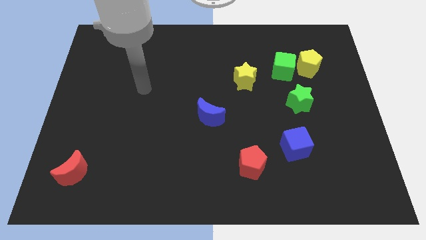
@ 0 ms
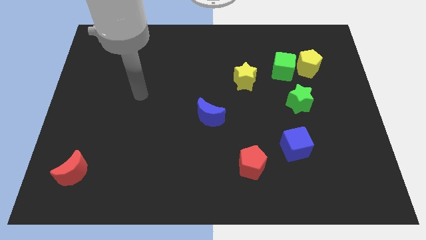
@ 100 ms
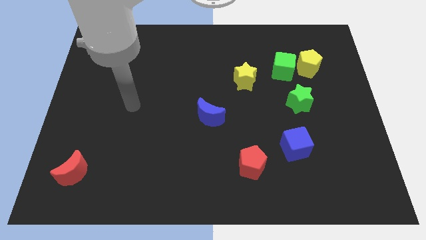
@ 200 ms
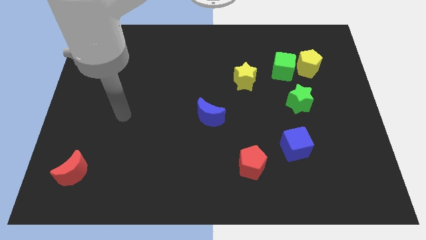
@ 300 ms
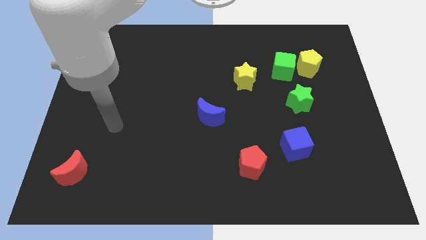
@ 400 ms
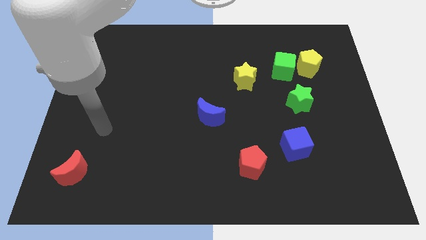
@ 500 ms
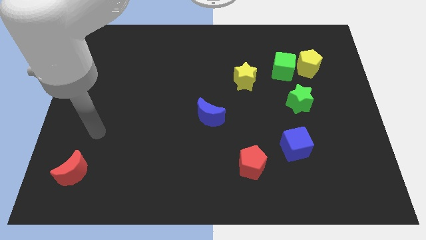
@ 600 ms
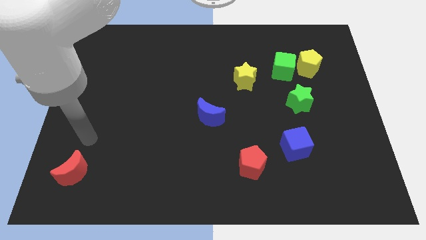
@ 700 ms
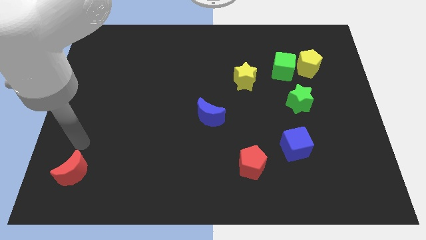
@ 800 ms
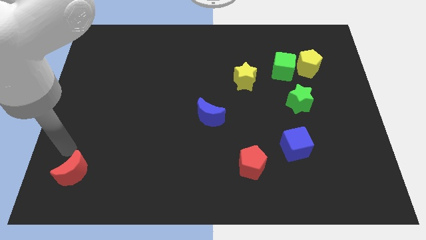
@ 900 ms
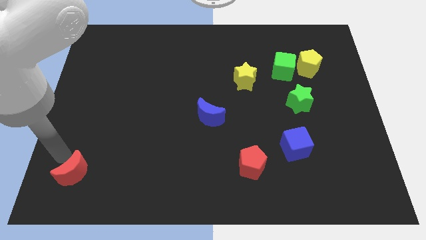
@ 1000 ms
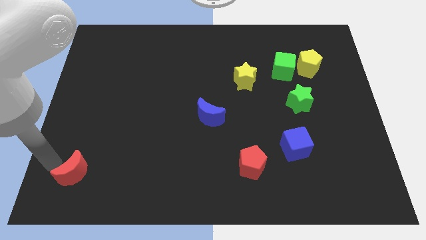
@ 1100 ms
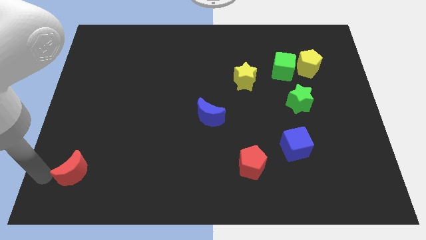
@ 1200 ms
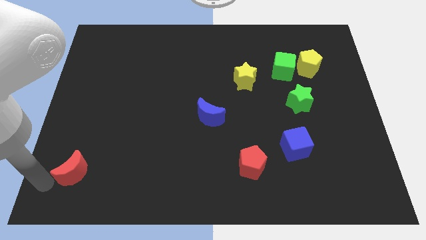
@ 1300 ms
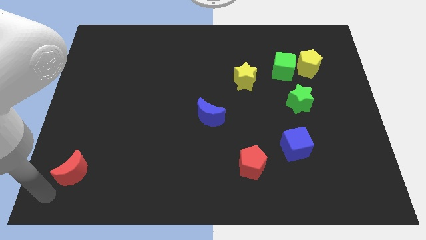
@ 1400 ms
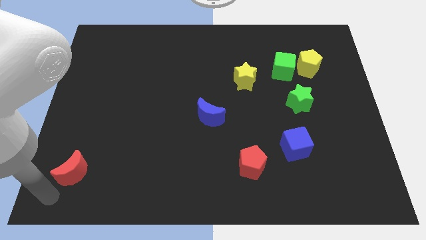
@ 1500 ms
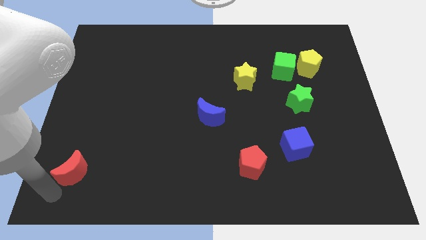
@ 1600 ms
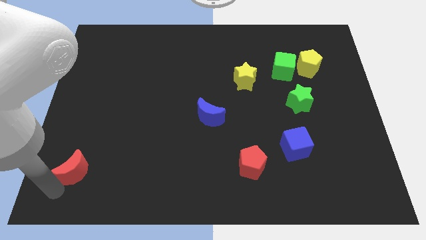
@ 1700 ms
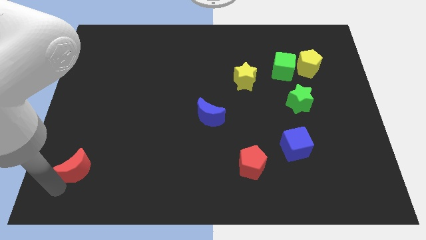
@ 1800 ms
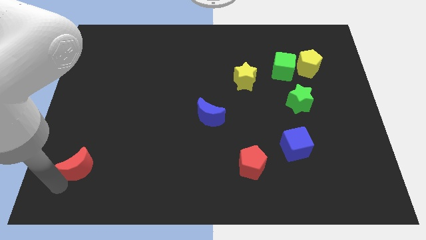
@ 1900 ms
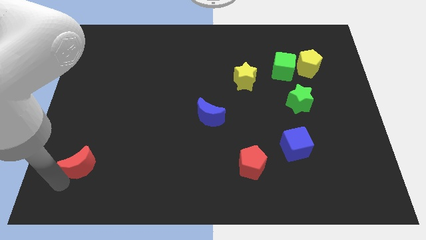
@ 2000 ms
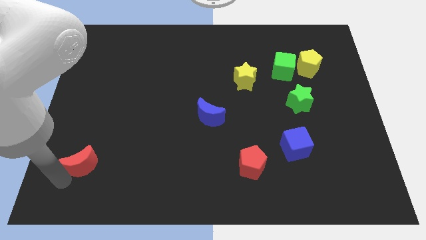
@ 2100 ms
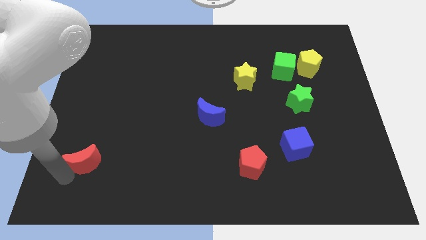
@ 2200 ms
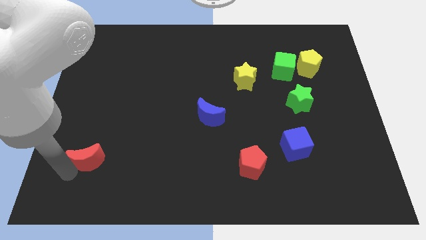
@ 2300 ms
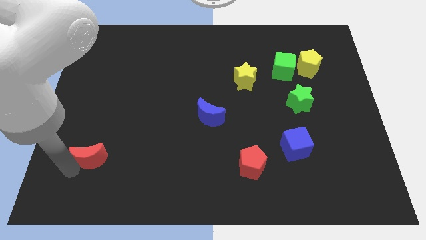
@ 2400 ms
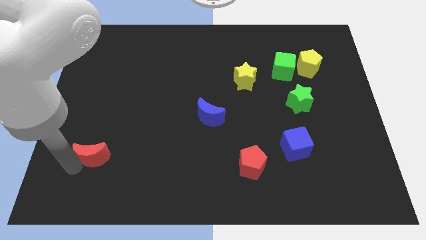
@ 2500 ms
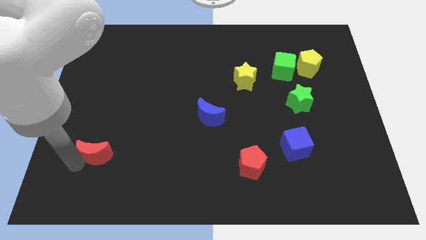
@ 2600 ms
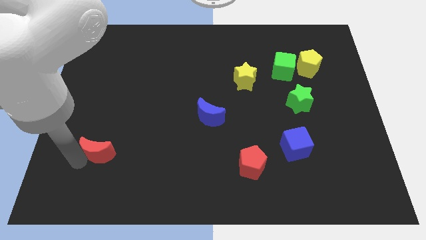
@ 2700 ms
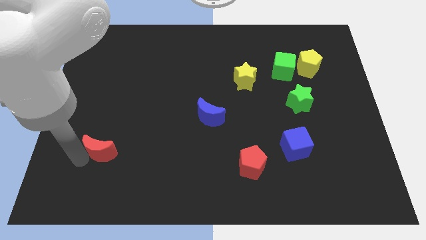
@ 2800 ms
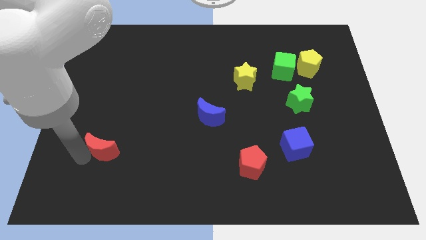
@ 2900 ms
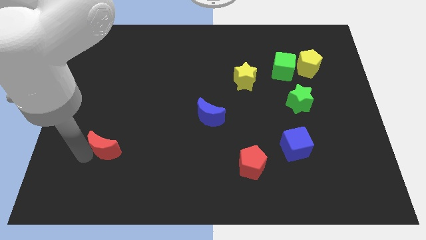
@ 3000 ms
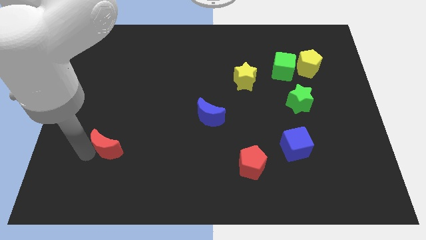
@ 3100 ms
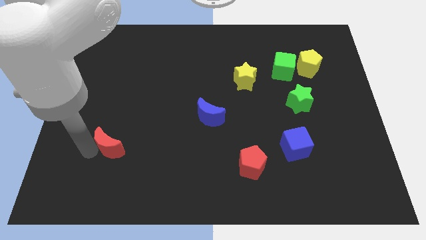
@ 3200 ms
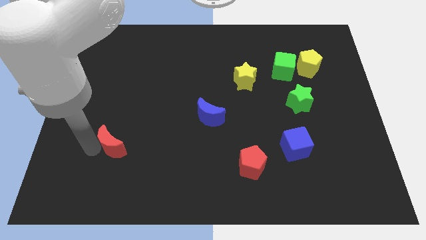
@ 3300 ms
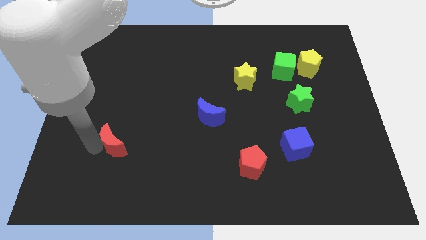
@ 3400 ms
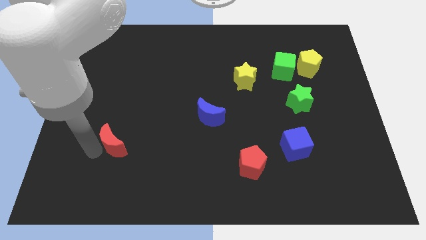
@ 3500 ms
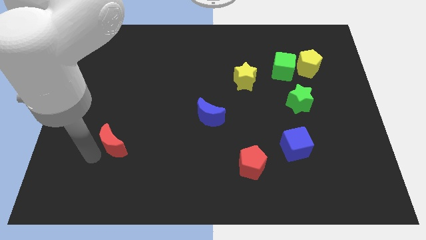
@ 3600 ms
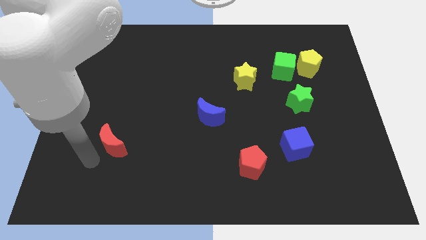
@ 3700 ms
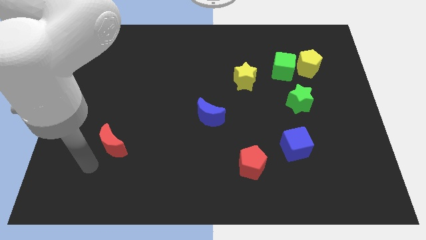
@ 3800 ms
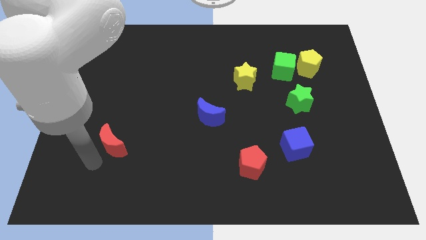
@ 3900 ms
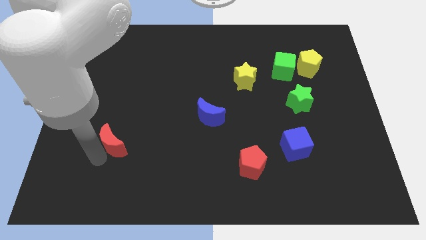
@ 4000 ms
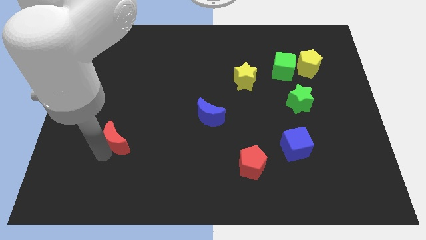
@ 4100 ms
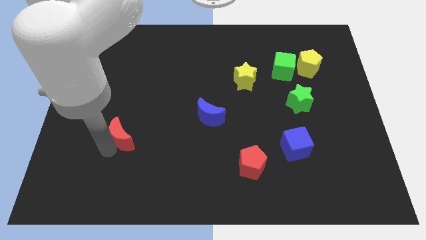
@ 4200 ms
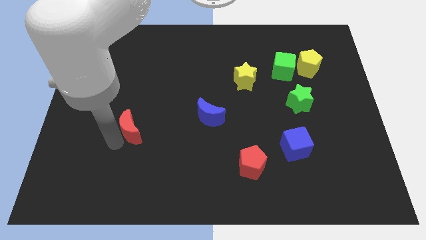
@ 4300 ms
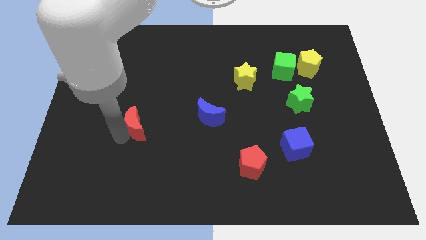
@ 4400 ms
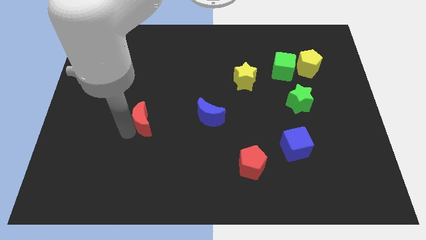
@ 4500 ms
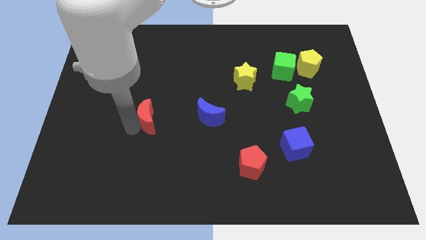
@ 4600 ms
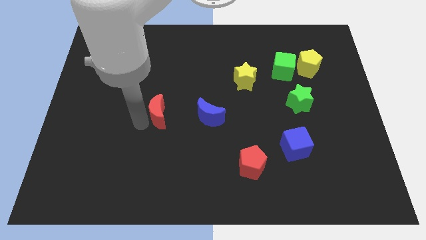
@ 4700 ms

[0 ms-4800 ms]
slide the red moon upwards and right

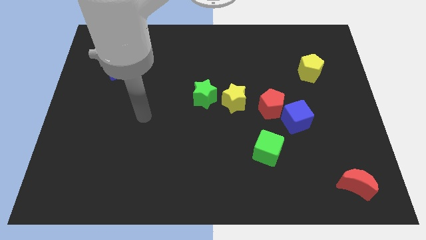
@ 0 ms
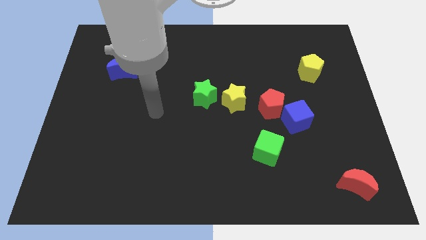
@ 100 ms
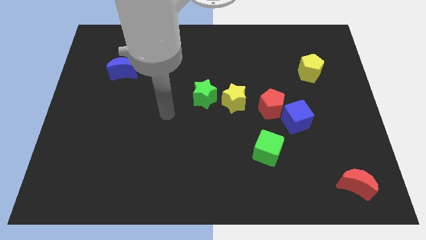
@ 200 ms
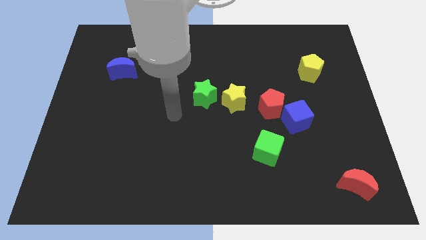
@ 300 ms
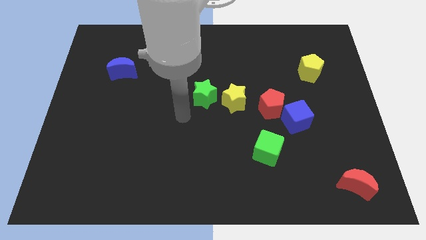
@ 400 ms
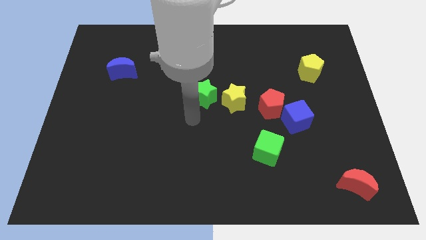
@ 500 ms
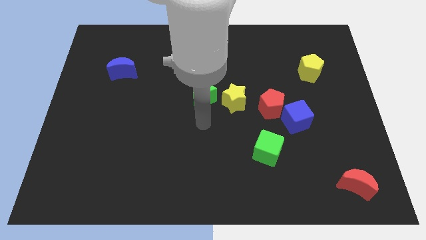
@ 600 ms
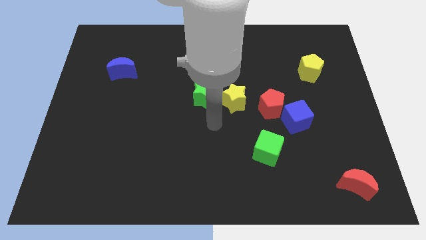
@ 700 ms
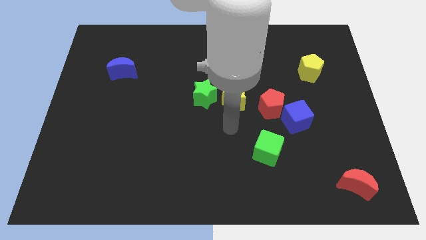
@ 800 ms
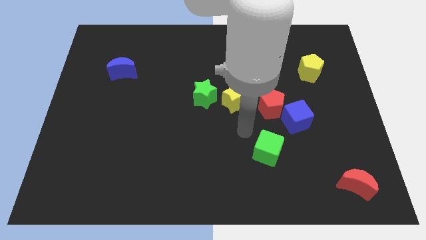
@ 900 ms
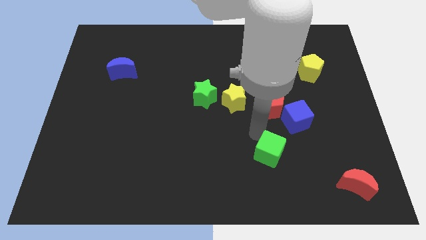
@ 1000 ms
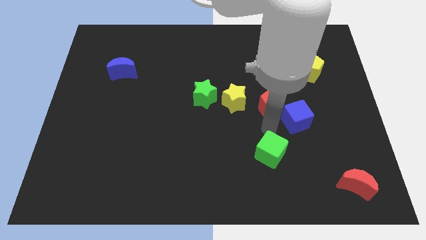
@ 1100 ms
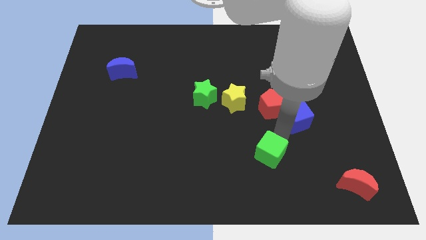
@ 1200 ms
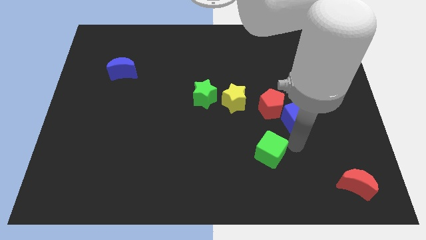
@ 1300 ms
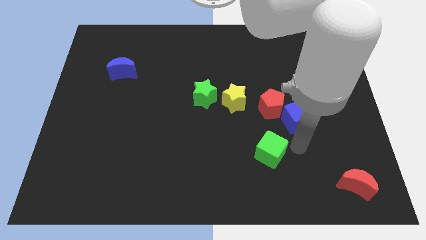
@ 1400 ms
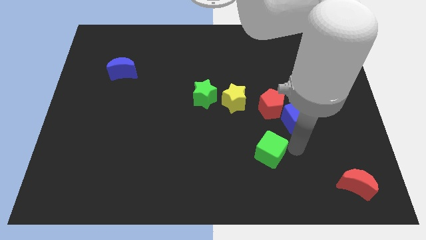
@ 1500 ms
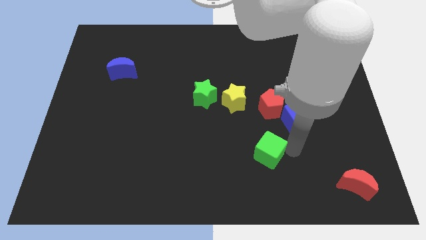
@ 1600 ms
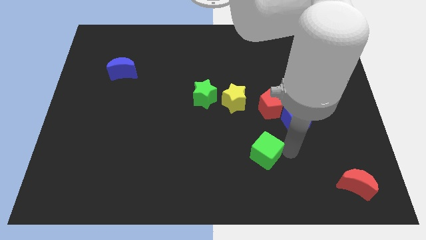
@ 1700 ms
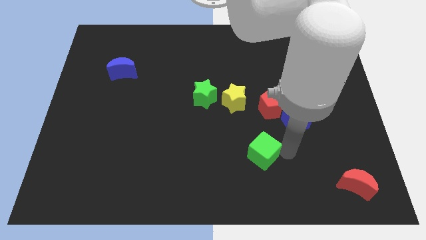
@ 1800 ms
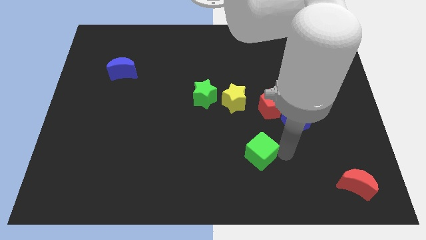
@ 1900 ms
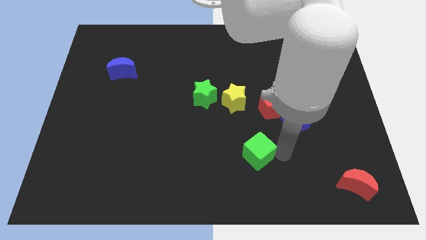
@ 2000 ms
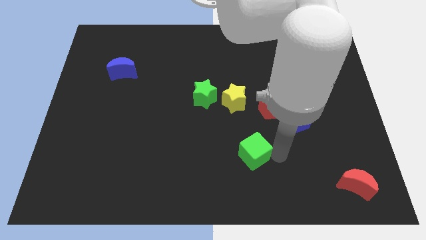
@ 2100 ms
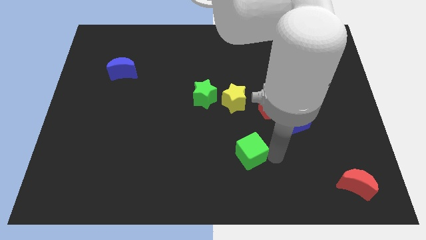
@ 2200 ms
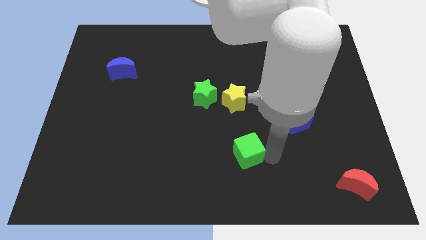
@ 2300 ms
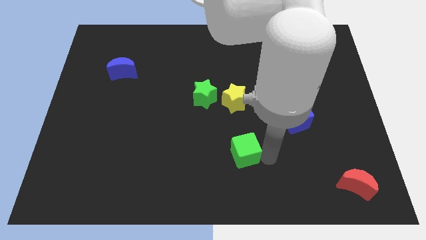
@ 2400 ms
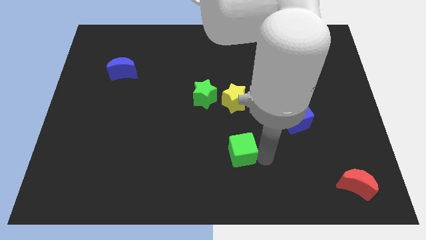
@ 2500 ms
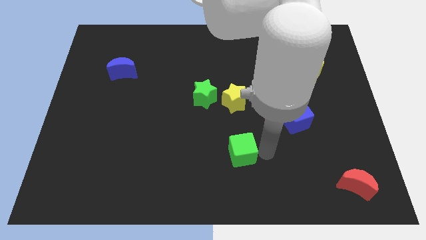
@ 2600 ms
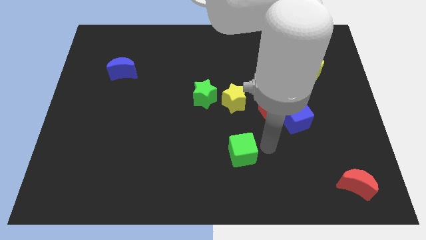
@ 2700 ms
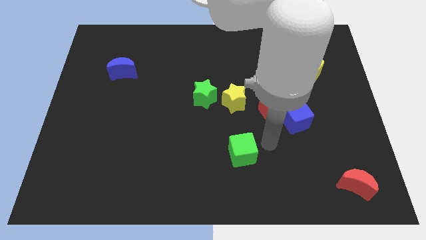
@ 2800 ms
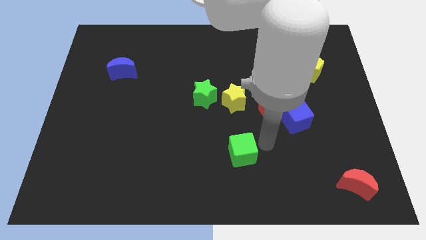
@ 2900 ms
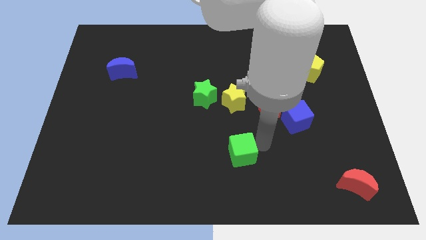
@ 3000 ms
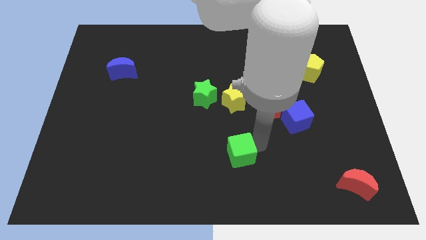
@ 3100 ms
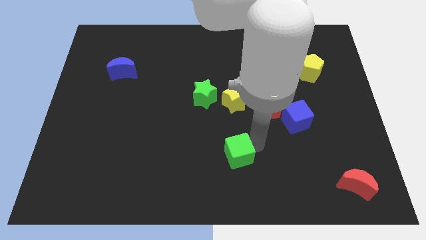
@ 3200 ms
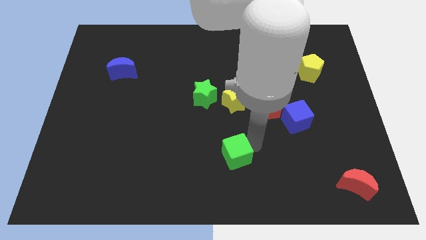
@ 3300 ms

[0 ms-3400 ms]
slightly push the green cube to the left

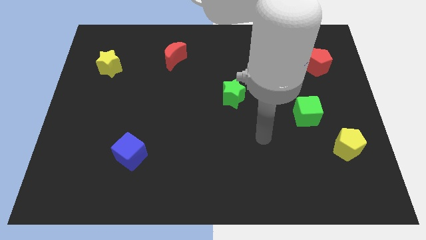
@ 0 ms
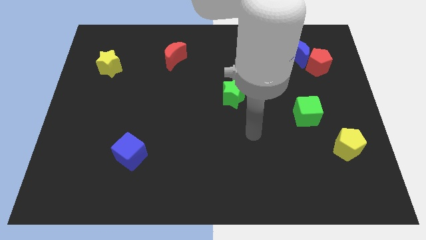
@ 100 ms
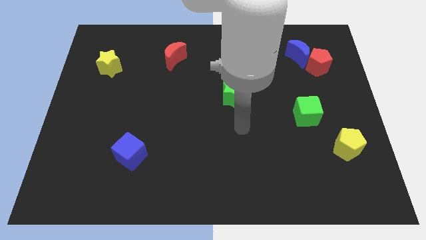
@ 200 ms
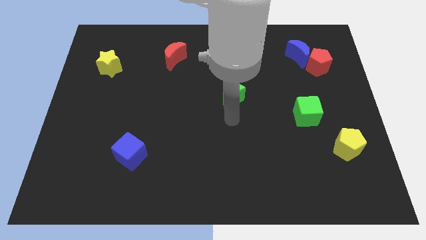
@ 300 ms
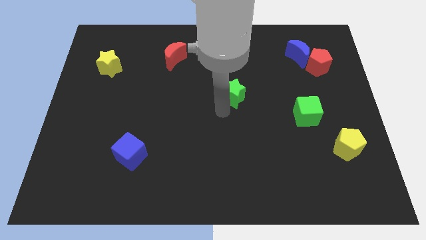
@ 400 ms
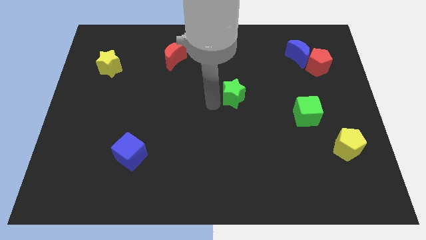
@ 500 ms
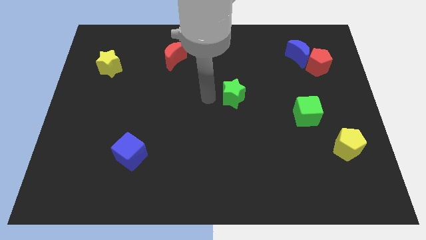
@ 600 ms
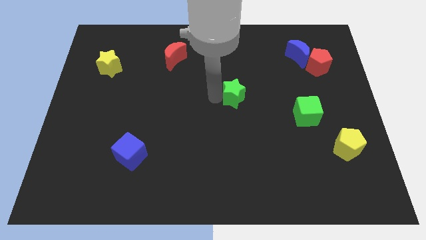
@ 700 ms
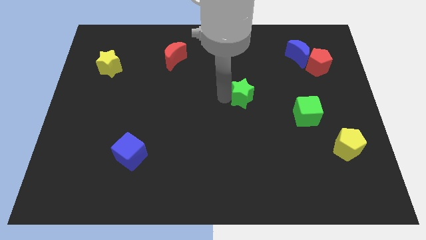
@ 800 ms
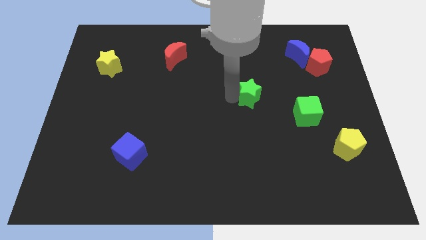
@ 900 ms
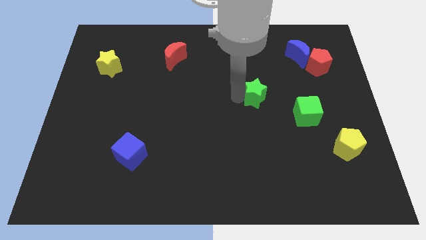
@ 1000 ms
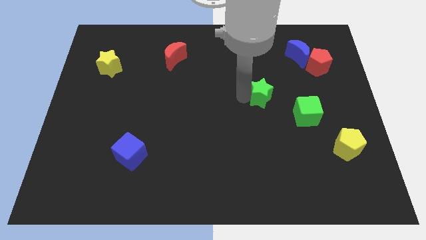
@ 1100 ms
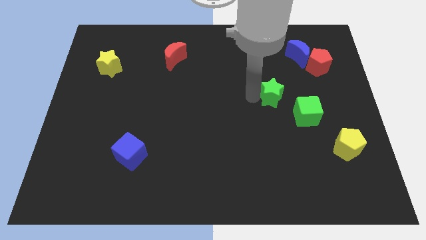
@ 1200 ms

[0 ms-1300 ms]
push the green star somewhat right
